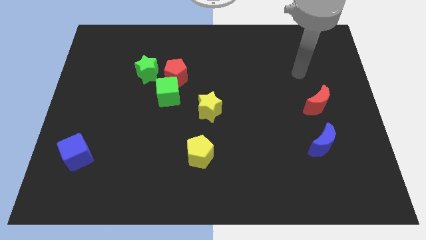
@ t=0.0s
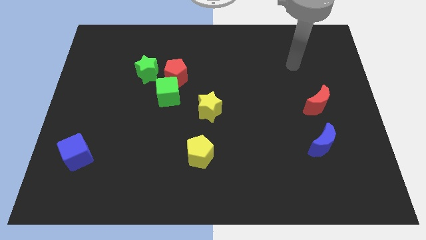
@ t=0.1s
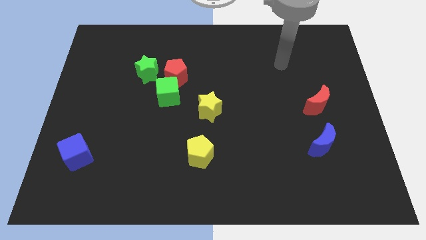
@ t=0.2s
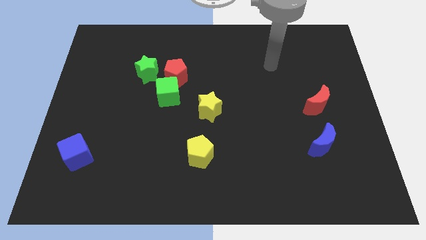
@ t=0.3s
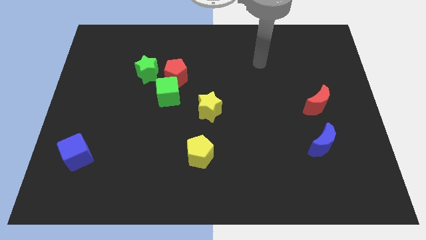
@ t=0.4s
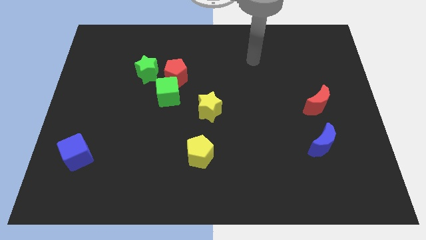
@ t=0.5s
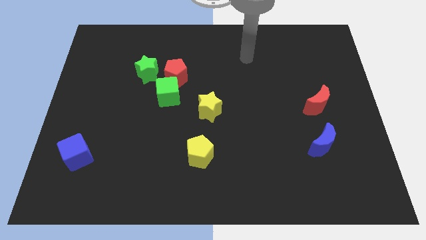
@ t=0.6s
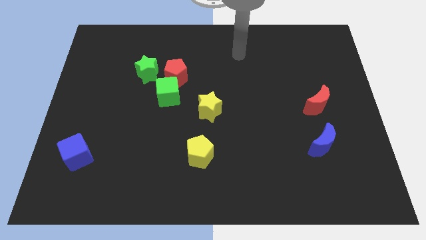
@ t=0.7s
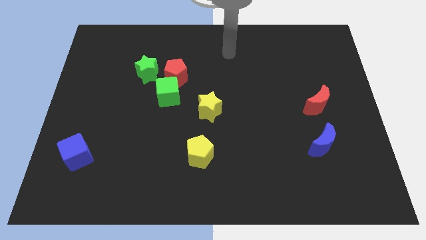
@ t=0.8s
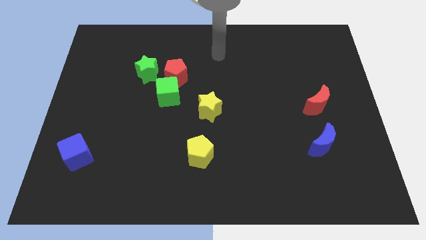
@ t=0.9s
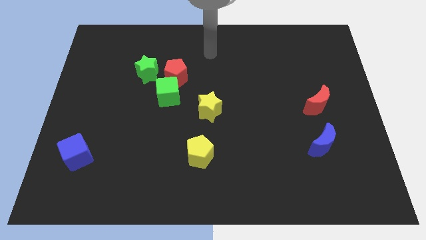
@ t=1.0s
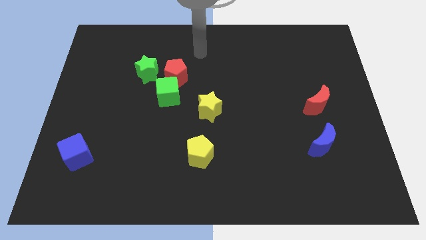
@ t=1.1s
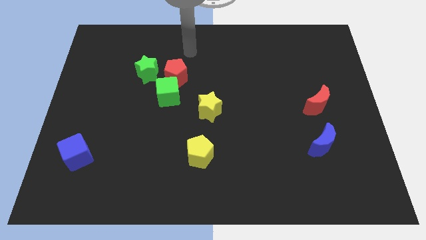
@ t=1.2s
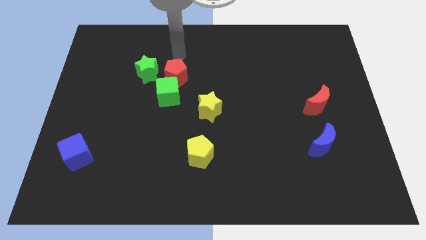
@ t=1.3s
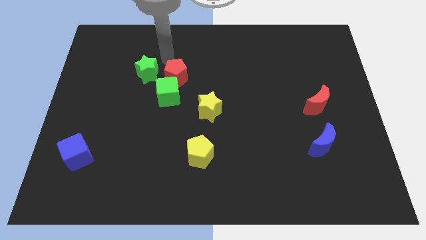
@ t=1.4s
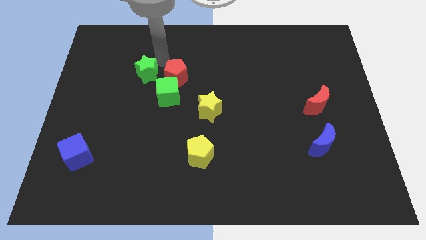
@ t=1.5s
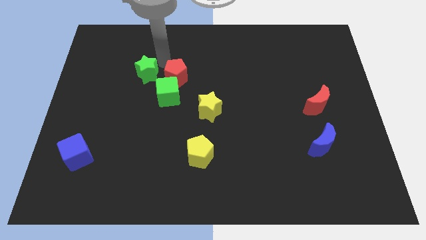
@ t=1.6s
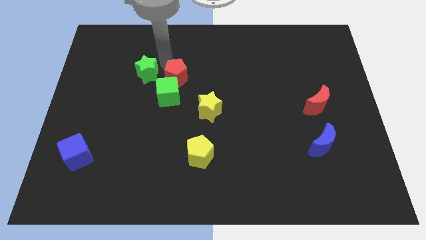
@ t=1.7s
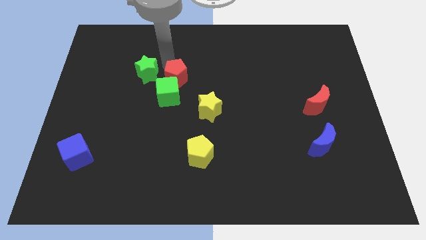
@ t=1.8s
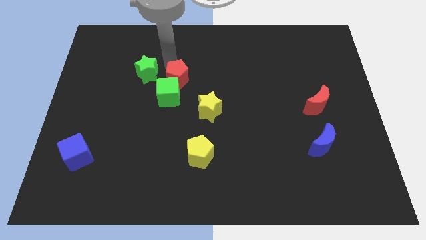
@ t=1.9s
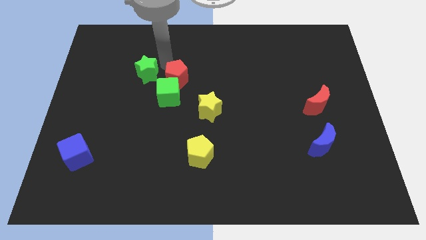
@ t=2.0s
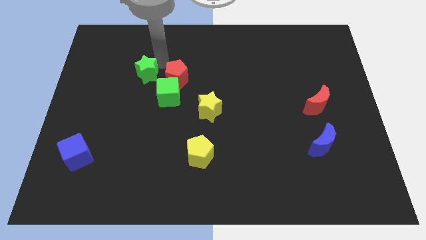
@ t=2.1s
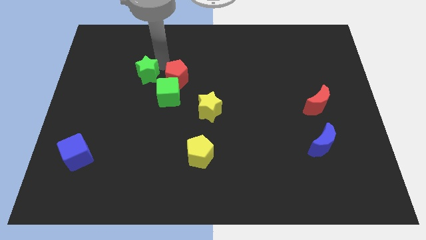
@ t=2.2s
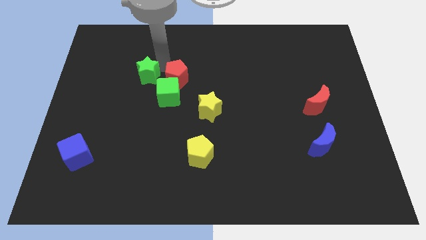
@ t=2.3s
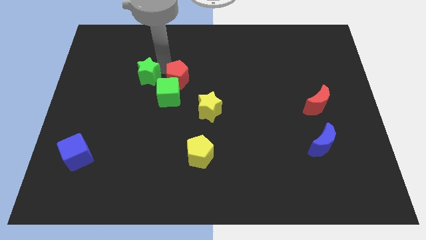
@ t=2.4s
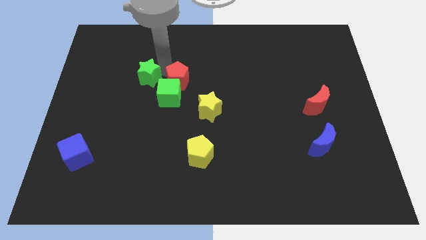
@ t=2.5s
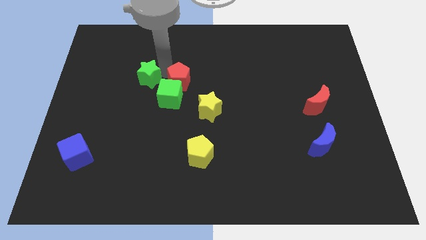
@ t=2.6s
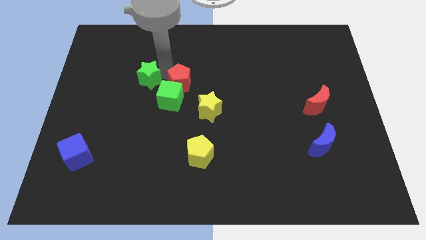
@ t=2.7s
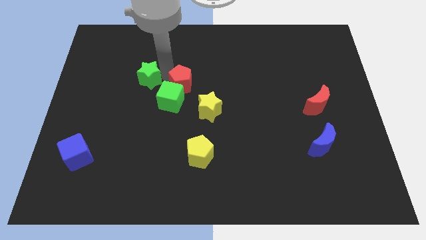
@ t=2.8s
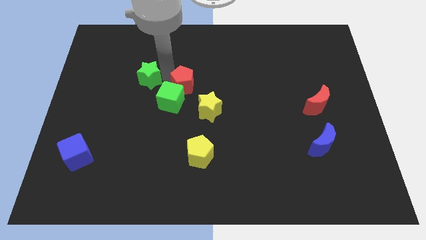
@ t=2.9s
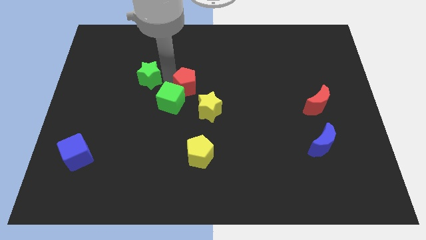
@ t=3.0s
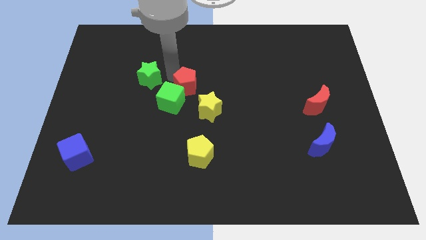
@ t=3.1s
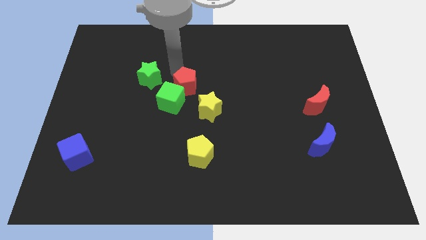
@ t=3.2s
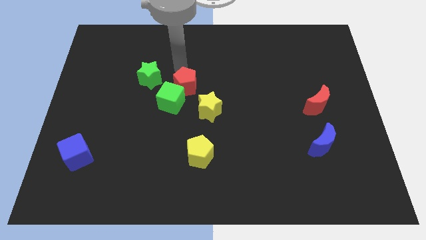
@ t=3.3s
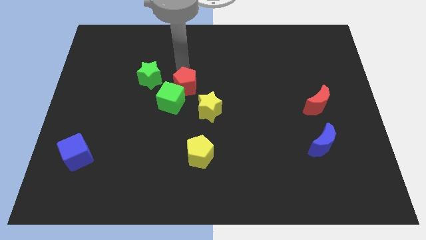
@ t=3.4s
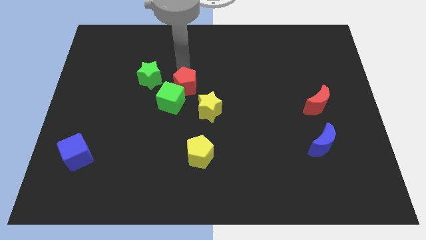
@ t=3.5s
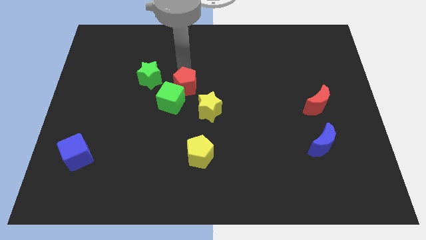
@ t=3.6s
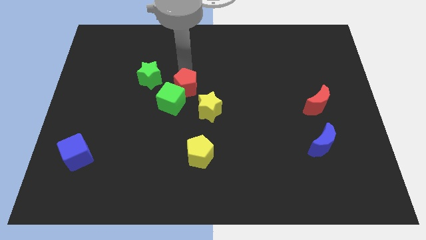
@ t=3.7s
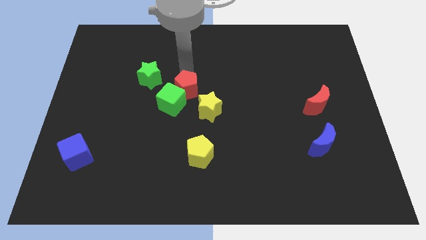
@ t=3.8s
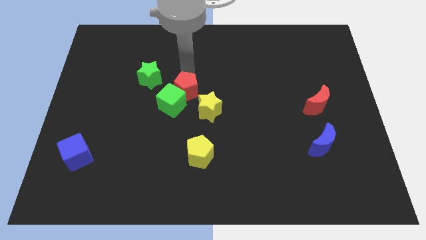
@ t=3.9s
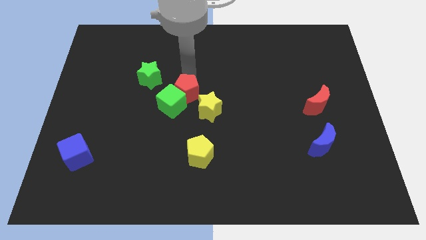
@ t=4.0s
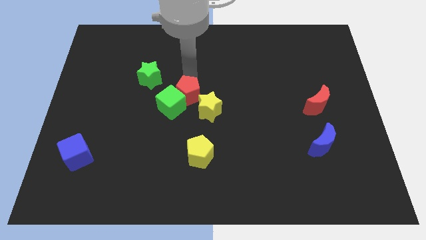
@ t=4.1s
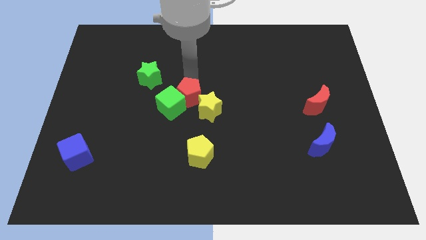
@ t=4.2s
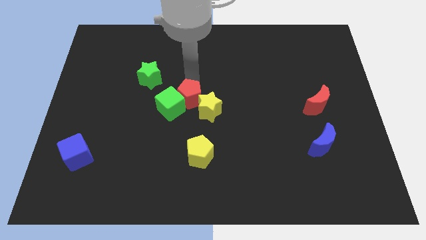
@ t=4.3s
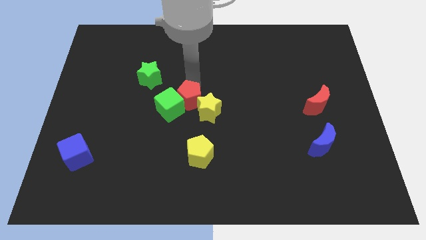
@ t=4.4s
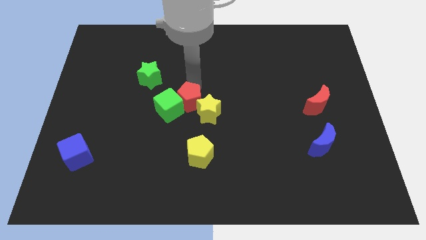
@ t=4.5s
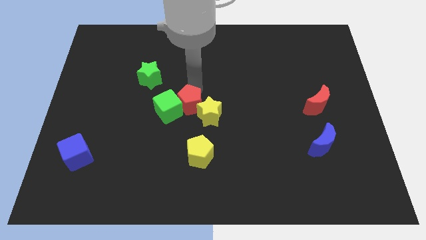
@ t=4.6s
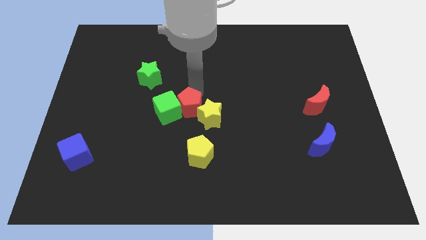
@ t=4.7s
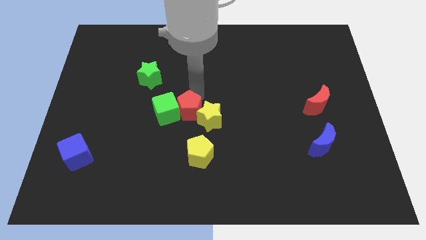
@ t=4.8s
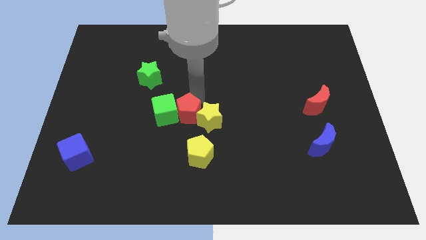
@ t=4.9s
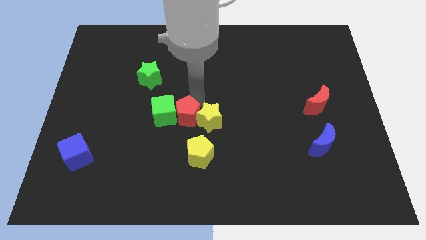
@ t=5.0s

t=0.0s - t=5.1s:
put the red pentagon to the bottom left of the yellow star

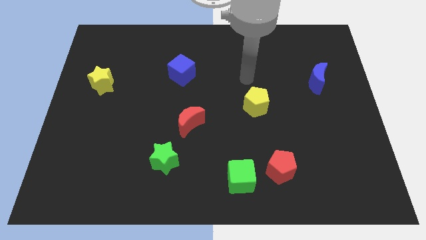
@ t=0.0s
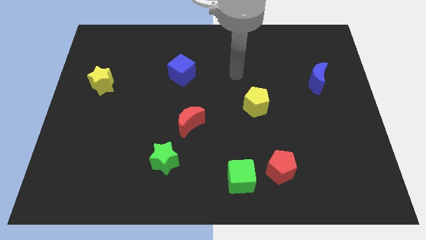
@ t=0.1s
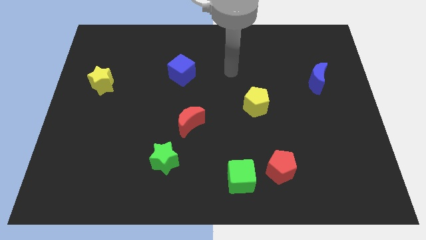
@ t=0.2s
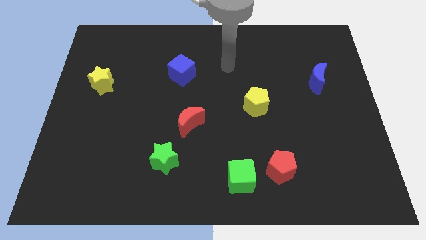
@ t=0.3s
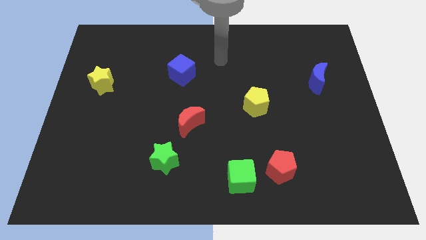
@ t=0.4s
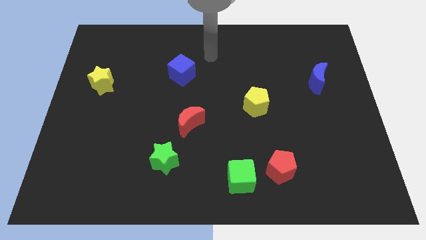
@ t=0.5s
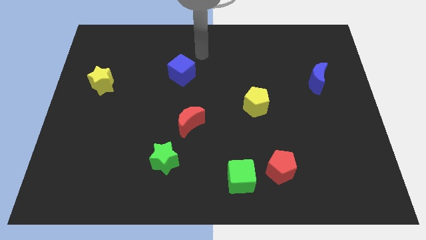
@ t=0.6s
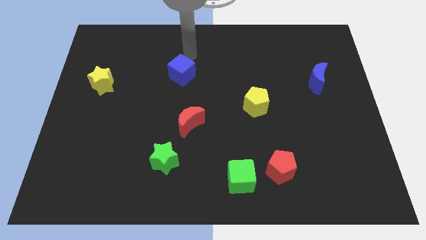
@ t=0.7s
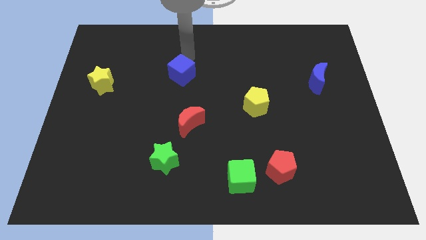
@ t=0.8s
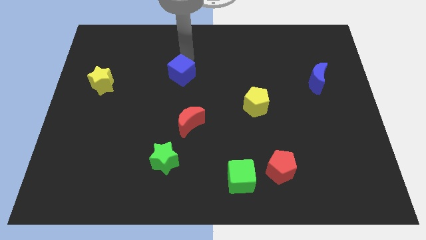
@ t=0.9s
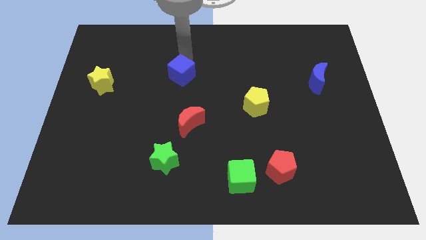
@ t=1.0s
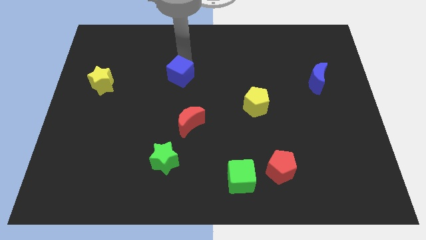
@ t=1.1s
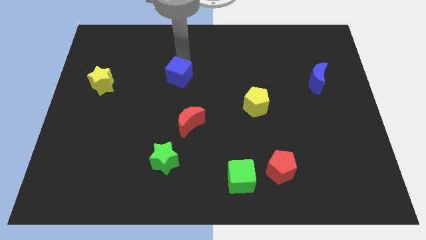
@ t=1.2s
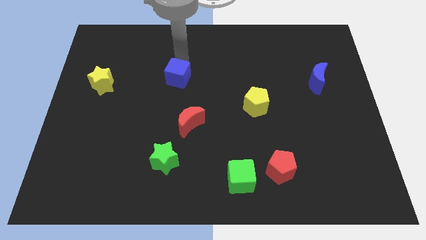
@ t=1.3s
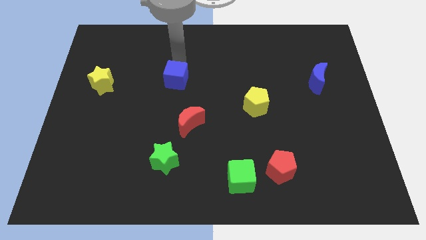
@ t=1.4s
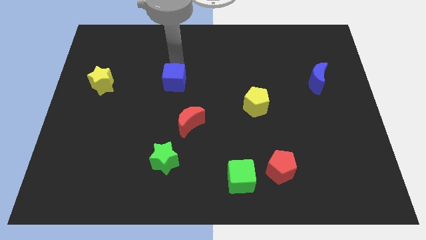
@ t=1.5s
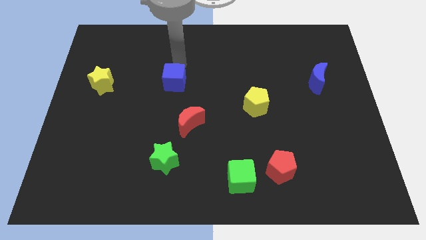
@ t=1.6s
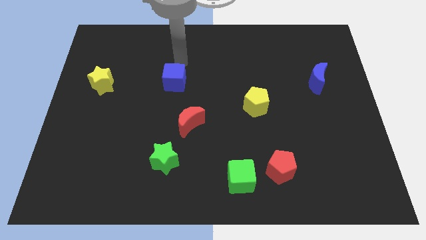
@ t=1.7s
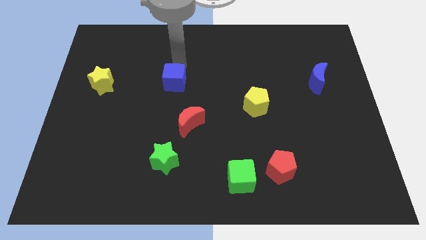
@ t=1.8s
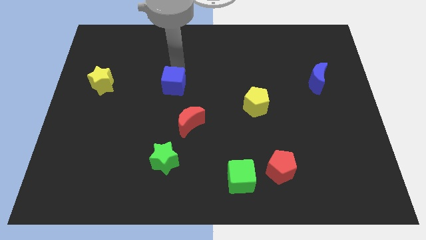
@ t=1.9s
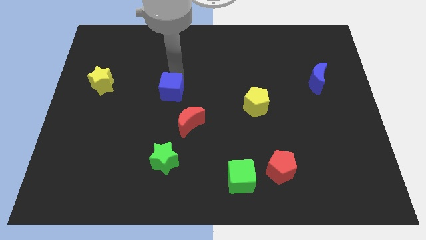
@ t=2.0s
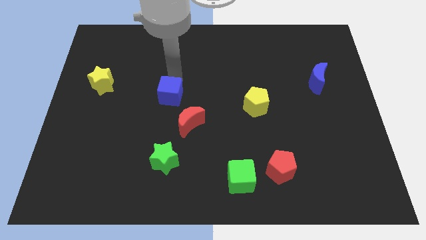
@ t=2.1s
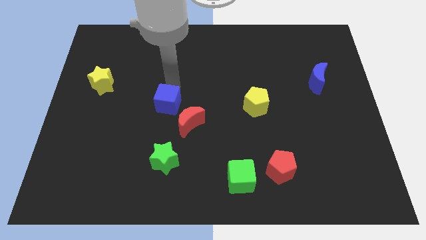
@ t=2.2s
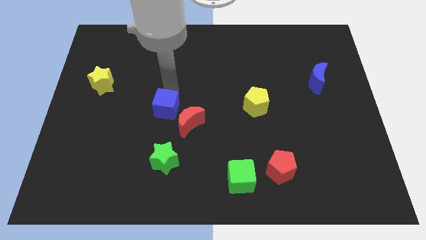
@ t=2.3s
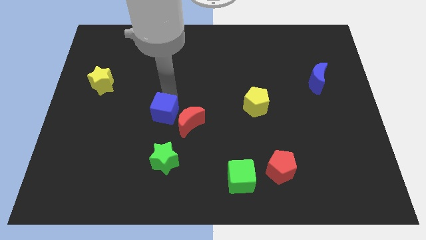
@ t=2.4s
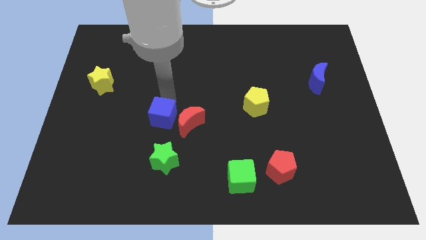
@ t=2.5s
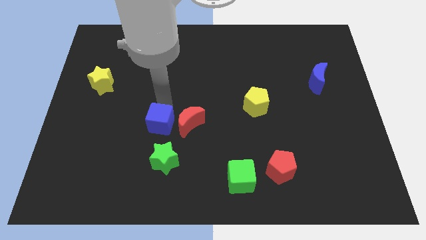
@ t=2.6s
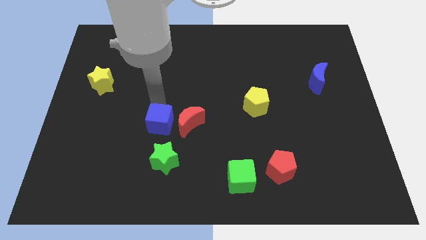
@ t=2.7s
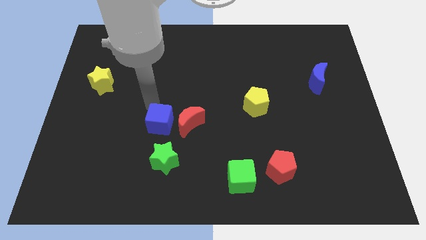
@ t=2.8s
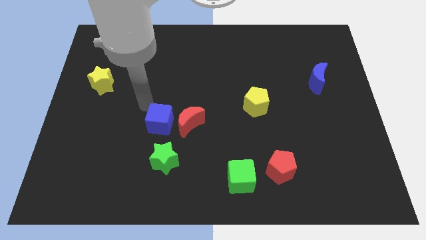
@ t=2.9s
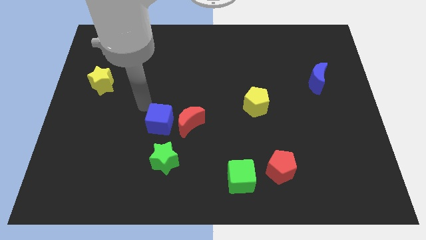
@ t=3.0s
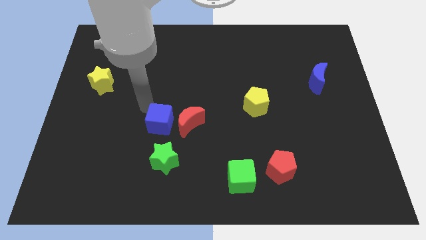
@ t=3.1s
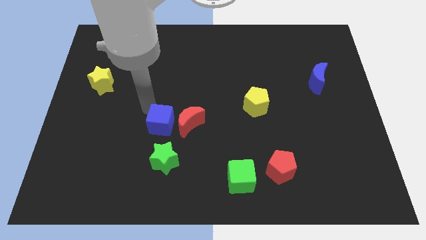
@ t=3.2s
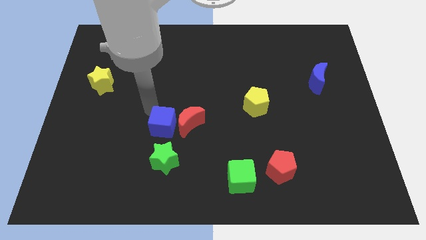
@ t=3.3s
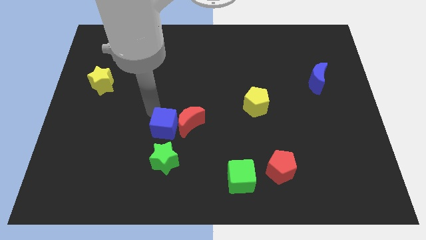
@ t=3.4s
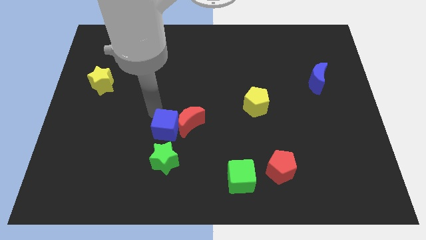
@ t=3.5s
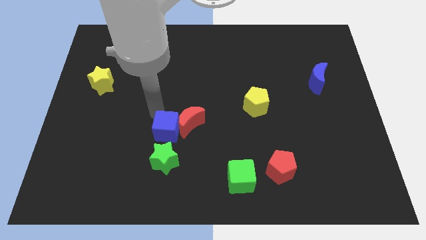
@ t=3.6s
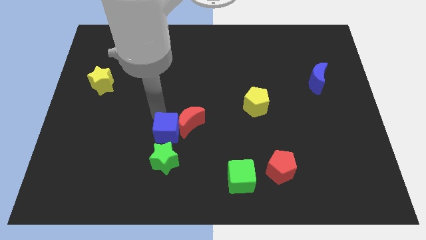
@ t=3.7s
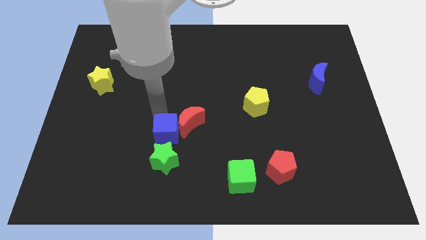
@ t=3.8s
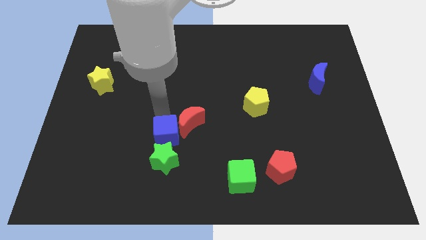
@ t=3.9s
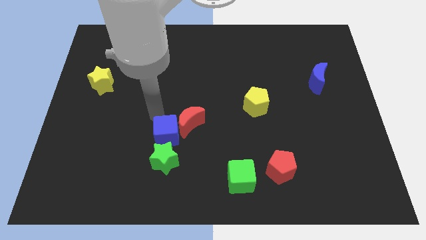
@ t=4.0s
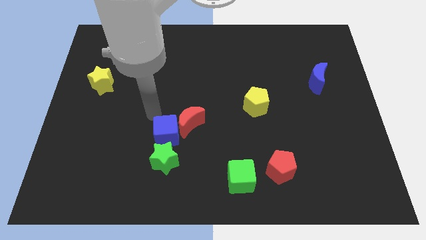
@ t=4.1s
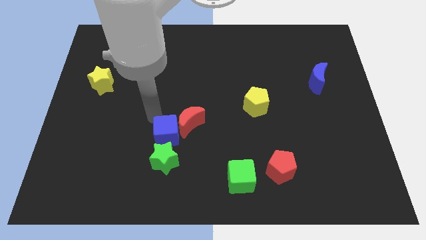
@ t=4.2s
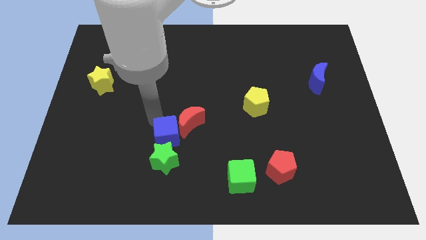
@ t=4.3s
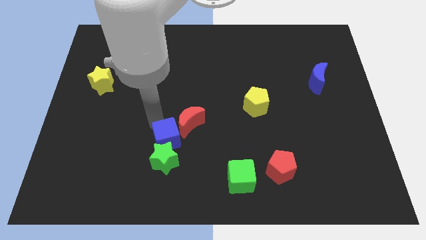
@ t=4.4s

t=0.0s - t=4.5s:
move the blue cube to the bottom side of the red moon
